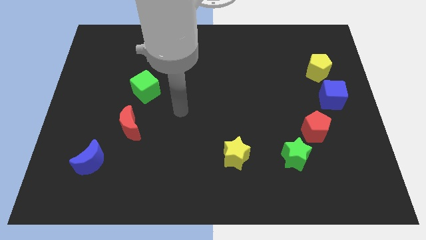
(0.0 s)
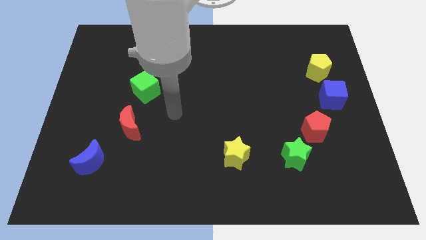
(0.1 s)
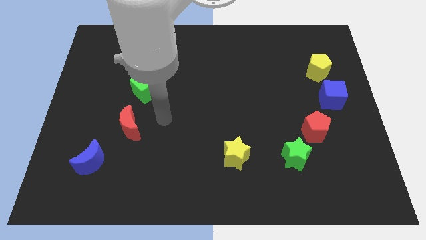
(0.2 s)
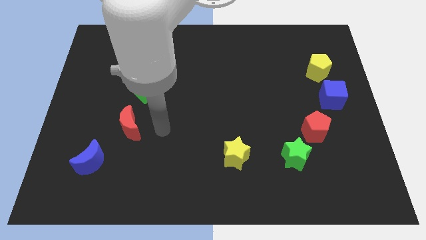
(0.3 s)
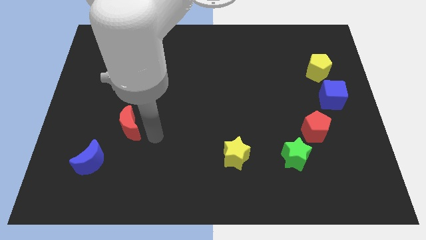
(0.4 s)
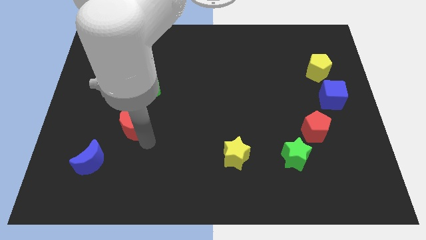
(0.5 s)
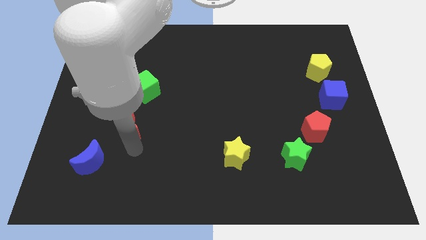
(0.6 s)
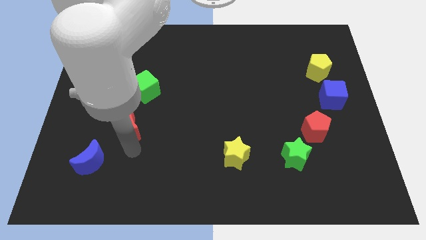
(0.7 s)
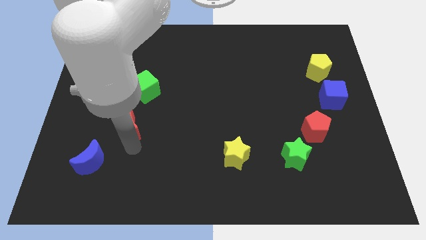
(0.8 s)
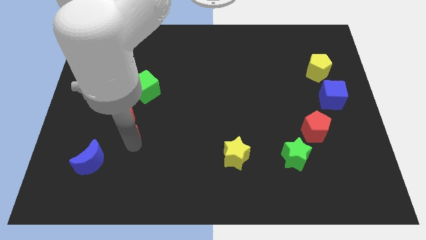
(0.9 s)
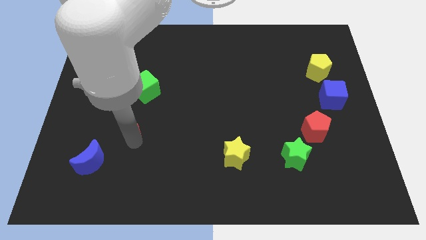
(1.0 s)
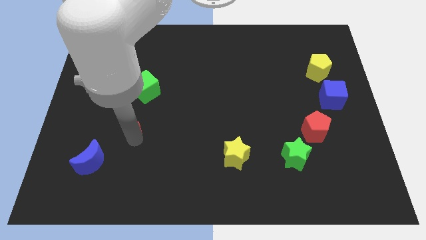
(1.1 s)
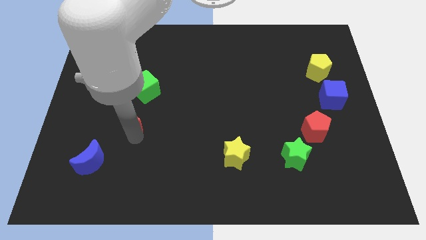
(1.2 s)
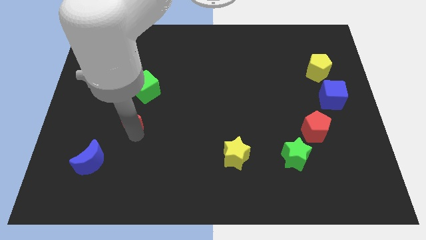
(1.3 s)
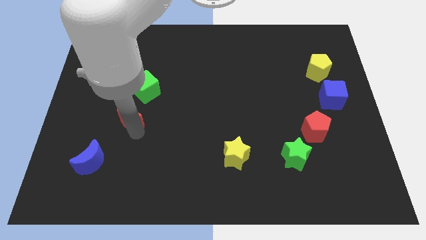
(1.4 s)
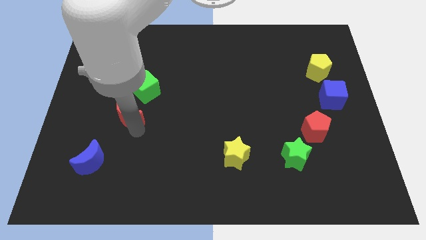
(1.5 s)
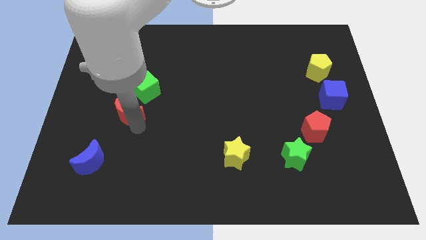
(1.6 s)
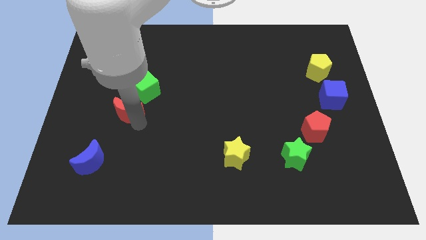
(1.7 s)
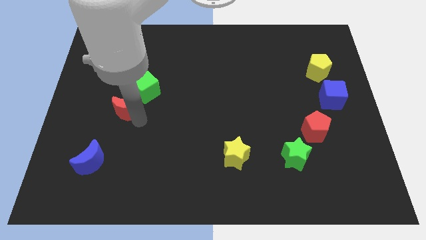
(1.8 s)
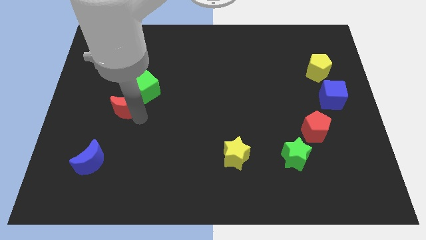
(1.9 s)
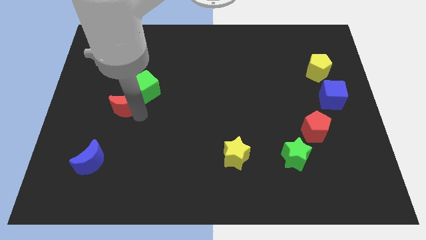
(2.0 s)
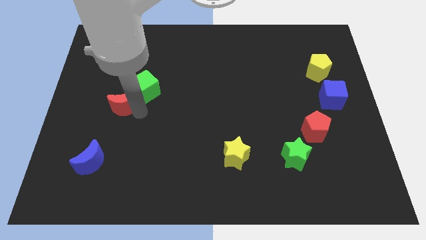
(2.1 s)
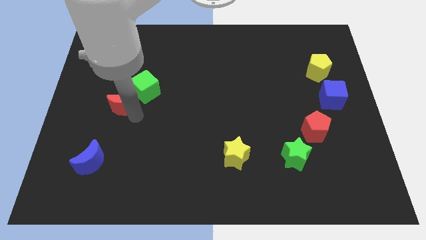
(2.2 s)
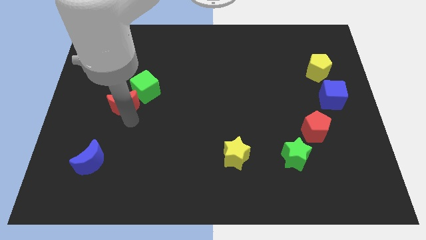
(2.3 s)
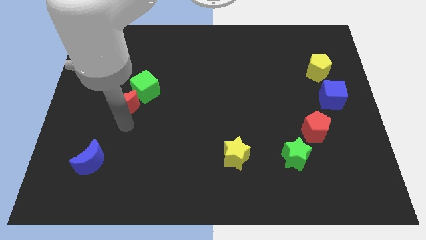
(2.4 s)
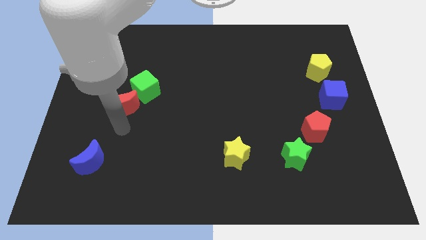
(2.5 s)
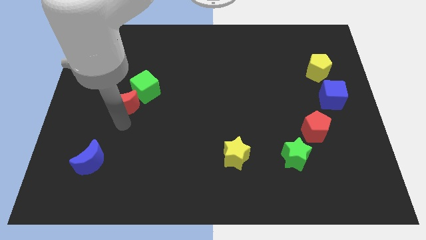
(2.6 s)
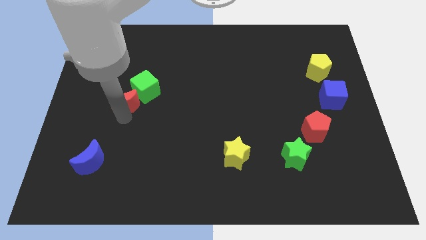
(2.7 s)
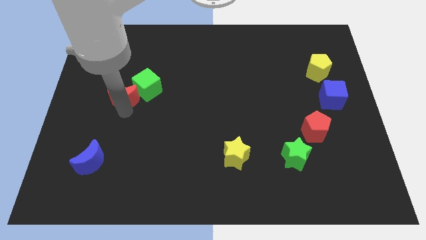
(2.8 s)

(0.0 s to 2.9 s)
move the red moon upwards a bit

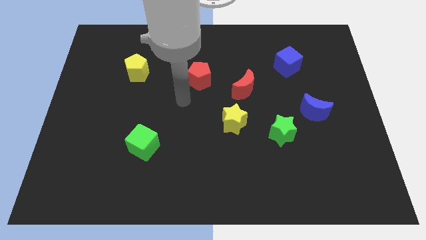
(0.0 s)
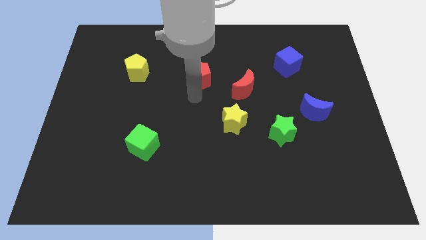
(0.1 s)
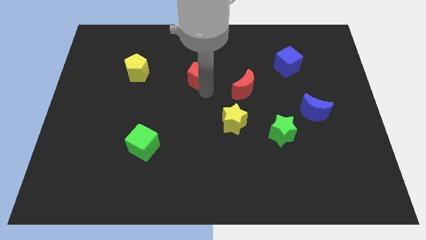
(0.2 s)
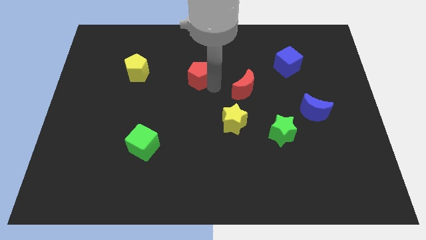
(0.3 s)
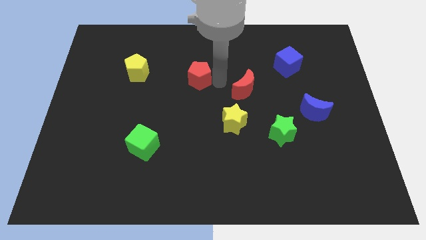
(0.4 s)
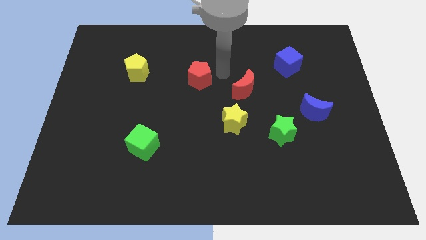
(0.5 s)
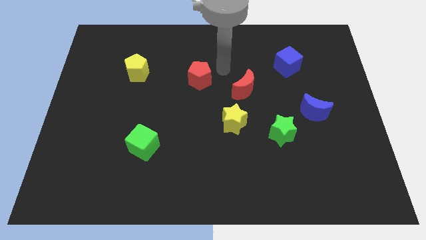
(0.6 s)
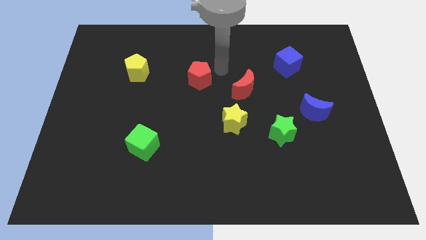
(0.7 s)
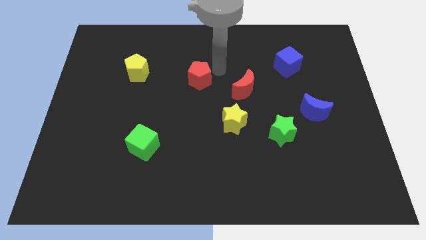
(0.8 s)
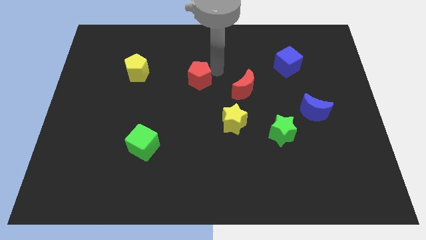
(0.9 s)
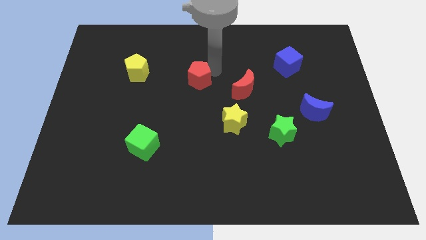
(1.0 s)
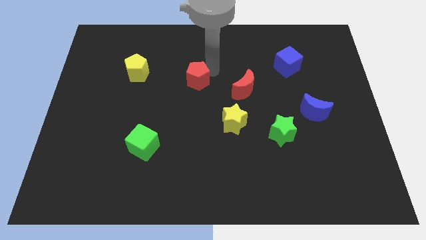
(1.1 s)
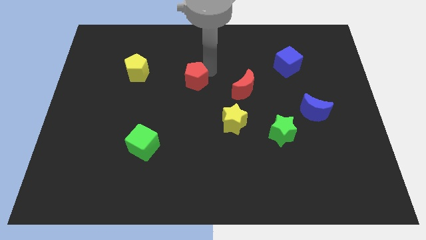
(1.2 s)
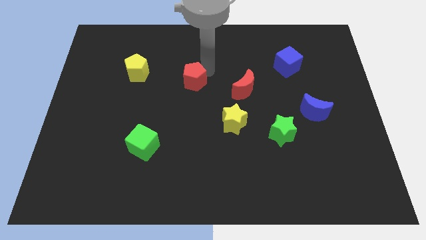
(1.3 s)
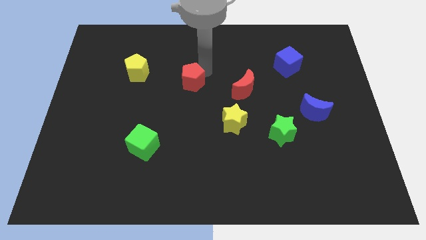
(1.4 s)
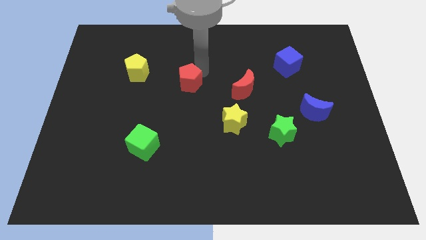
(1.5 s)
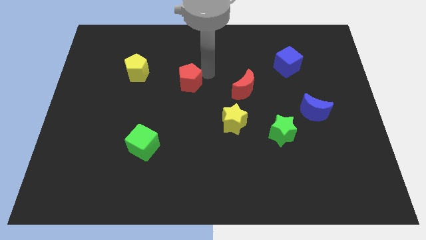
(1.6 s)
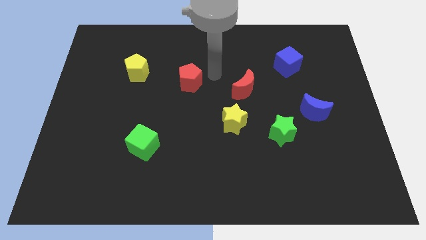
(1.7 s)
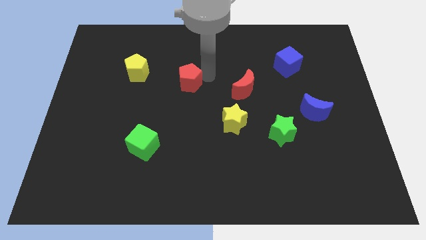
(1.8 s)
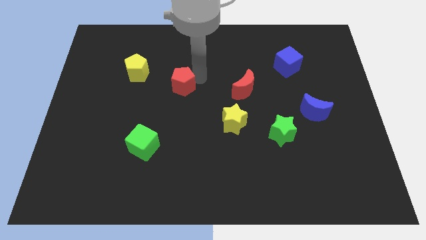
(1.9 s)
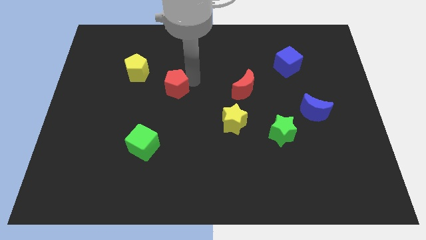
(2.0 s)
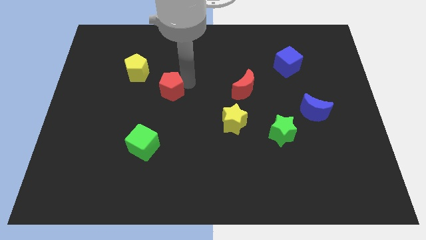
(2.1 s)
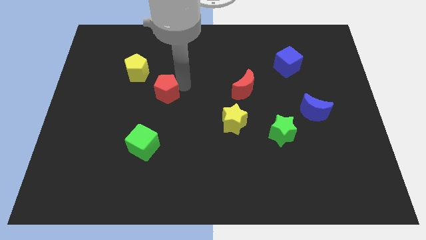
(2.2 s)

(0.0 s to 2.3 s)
slightly push the red pentagon left

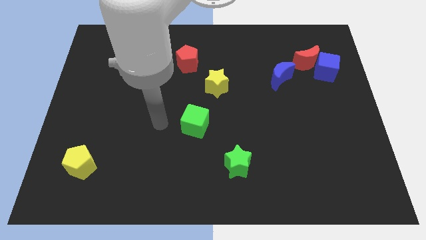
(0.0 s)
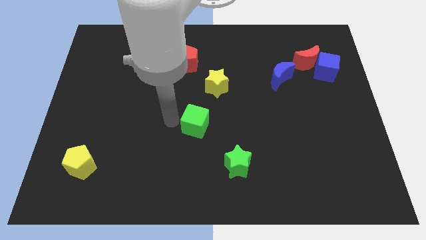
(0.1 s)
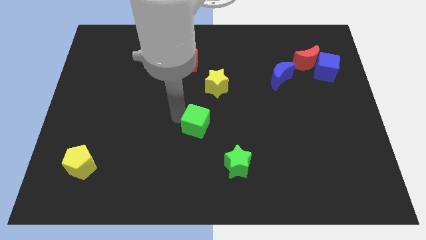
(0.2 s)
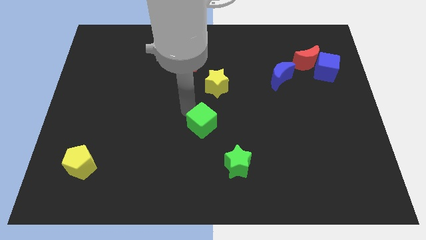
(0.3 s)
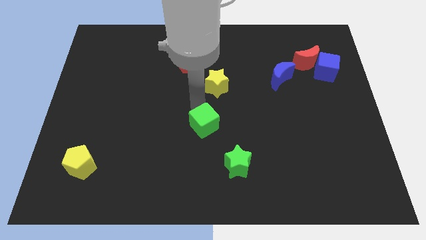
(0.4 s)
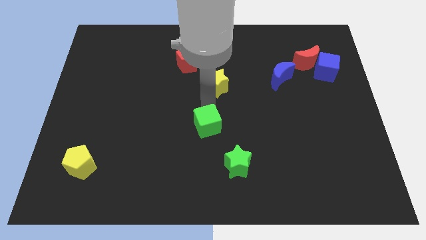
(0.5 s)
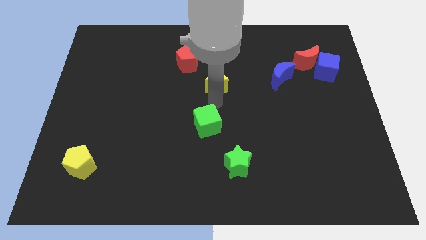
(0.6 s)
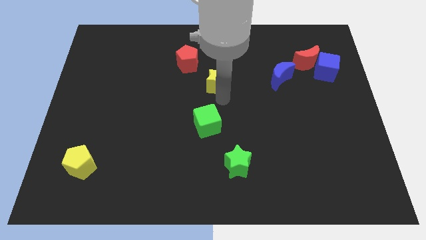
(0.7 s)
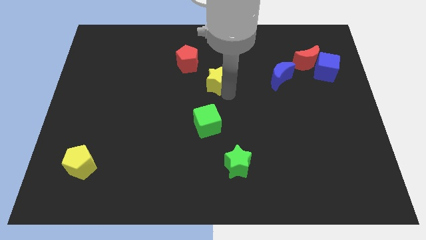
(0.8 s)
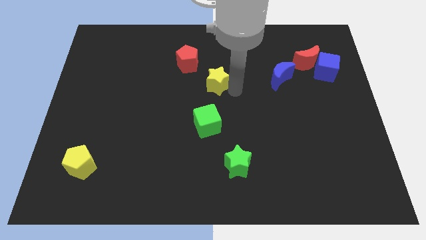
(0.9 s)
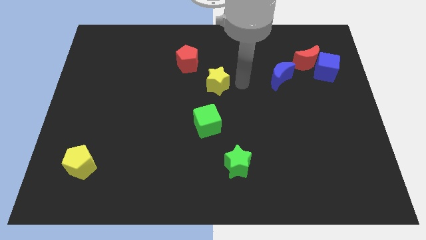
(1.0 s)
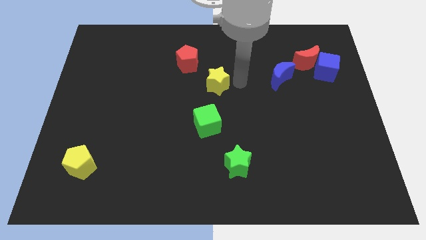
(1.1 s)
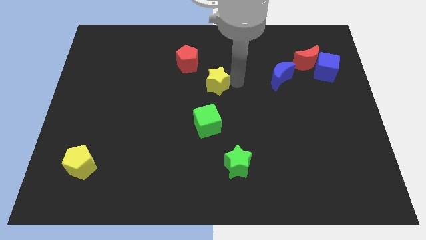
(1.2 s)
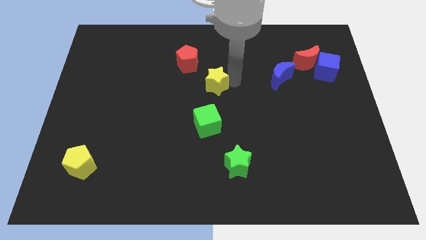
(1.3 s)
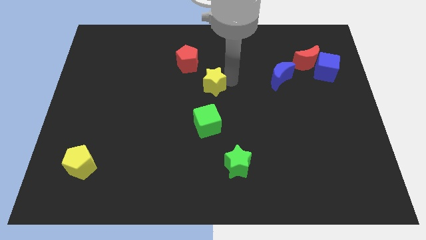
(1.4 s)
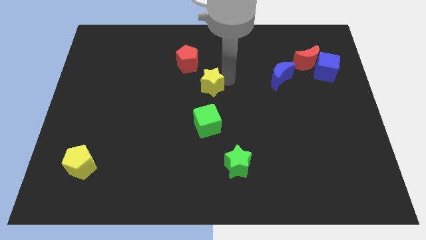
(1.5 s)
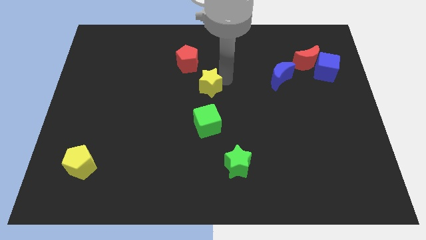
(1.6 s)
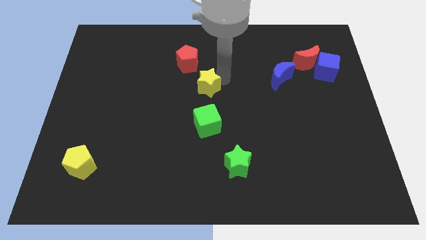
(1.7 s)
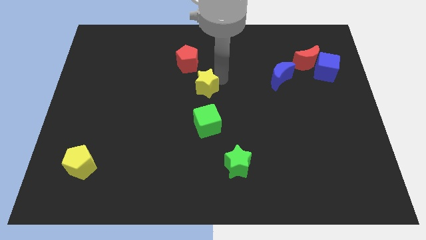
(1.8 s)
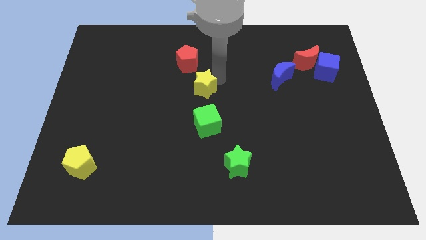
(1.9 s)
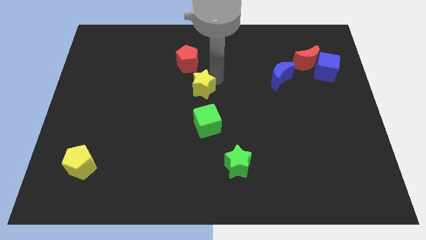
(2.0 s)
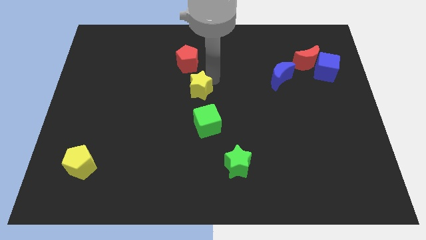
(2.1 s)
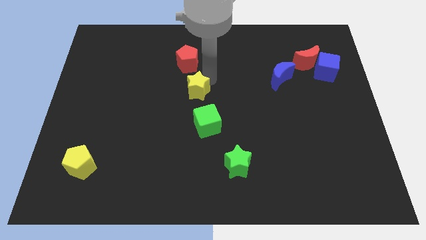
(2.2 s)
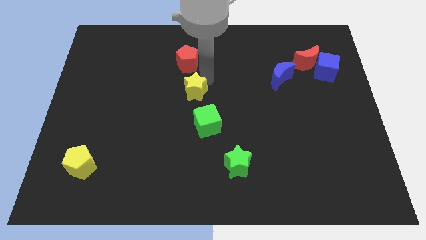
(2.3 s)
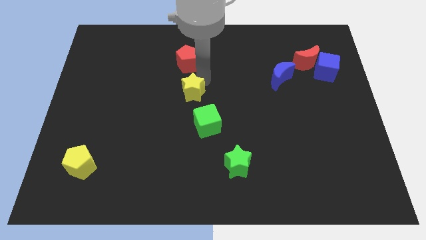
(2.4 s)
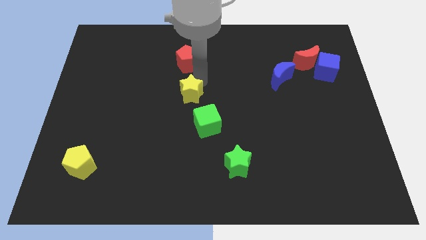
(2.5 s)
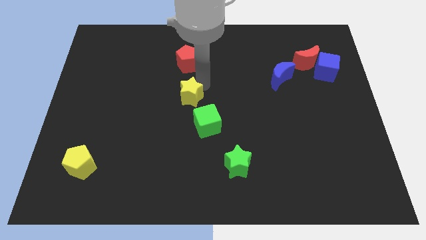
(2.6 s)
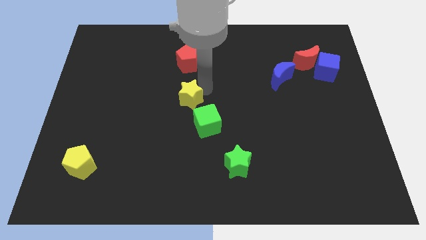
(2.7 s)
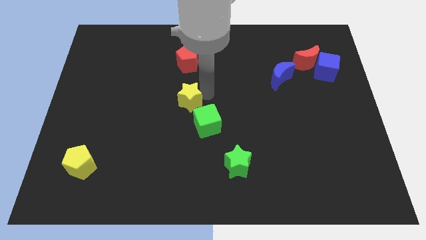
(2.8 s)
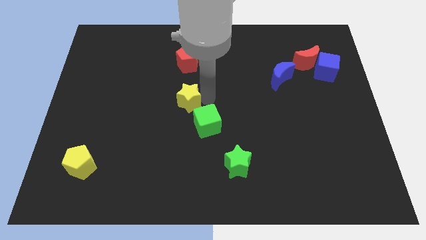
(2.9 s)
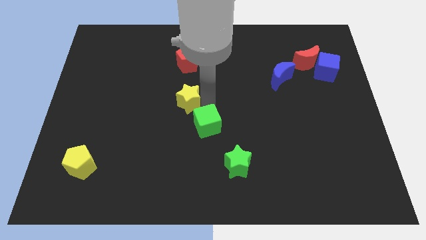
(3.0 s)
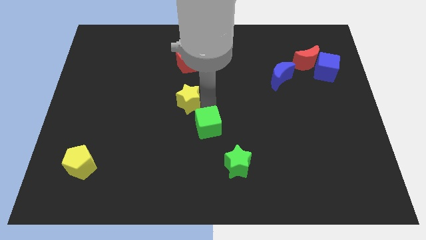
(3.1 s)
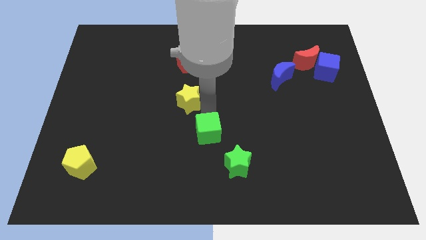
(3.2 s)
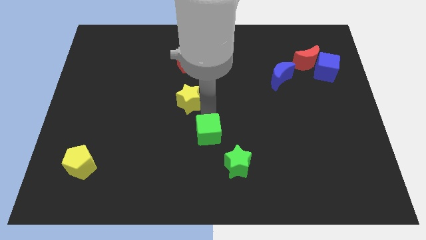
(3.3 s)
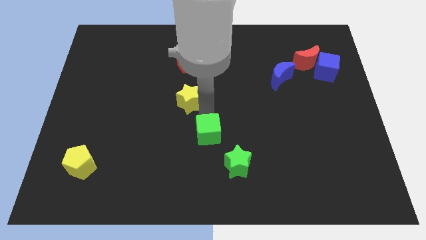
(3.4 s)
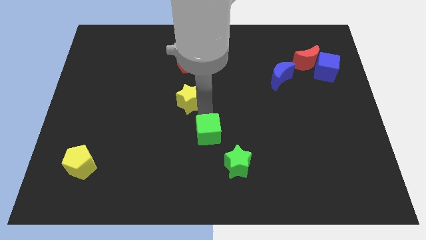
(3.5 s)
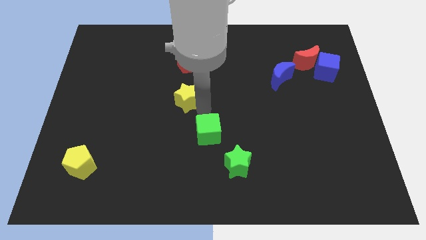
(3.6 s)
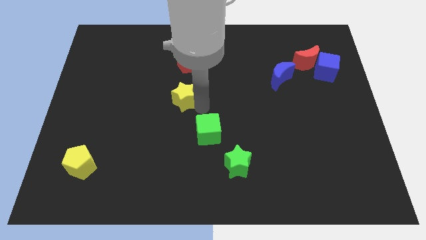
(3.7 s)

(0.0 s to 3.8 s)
slightly slide the yellow star left
